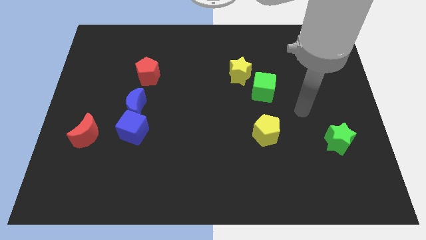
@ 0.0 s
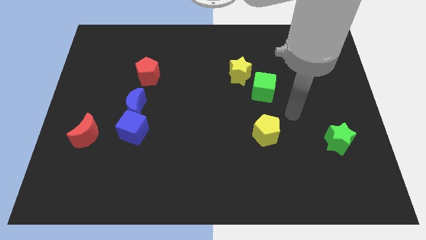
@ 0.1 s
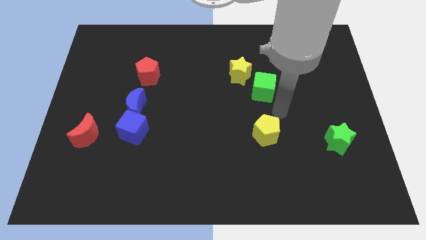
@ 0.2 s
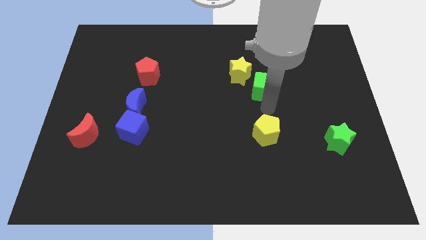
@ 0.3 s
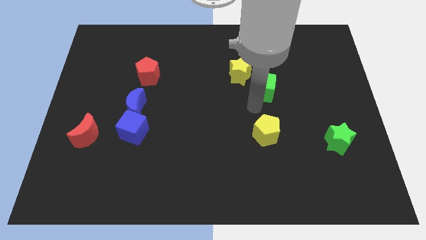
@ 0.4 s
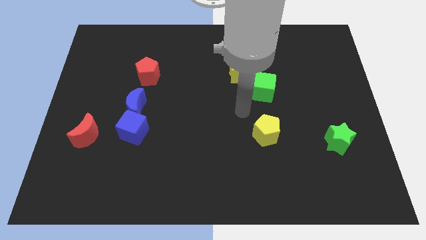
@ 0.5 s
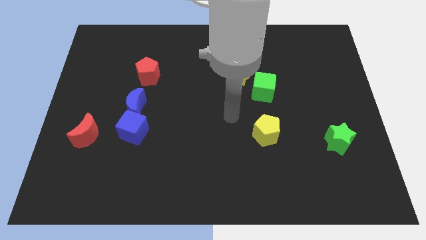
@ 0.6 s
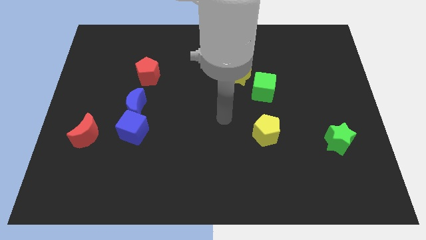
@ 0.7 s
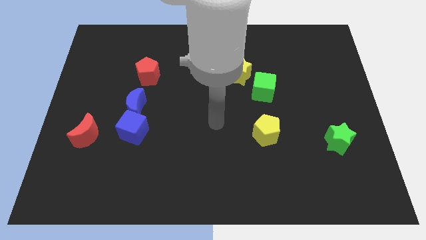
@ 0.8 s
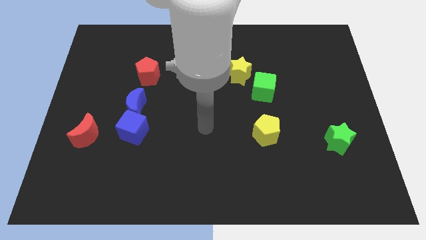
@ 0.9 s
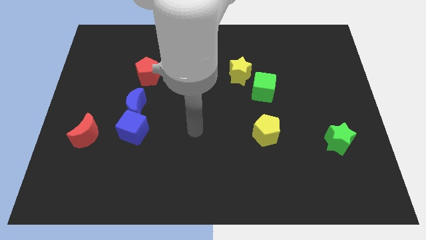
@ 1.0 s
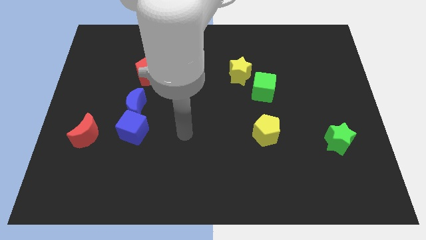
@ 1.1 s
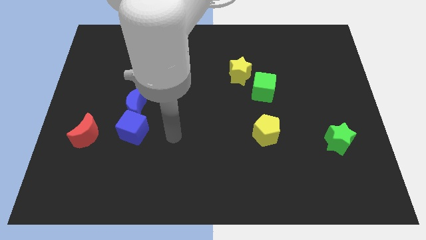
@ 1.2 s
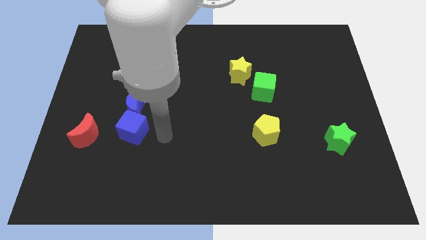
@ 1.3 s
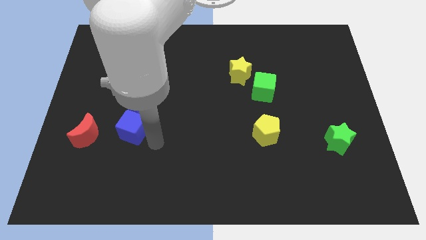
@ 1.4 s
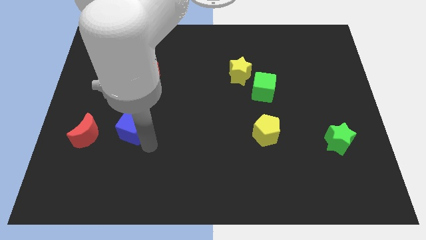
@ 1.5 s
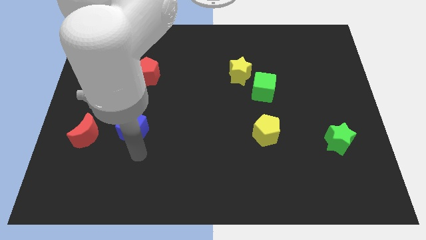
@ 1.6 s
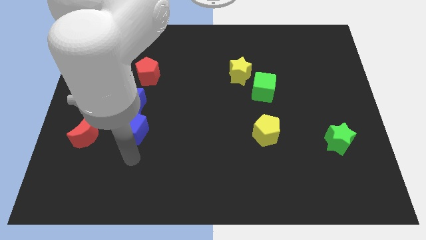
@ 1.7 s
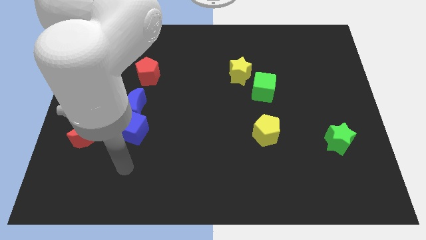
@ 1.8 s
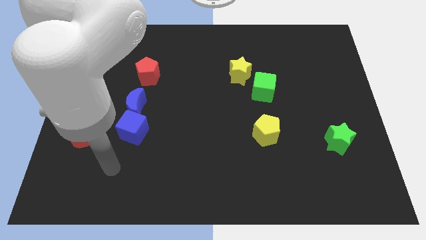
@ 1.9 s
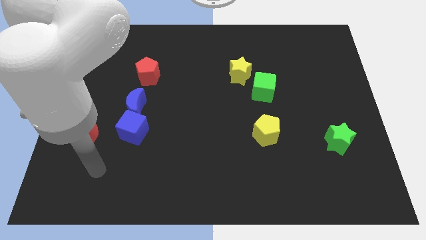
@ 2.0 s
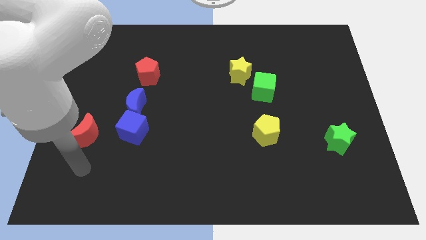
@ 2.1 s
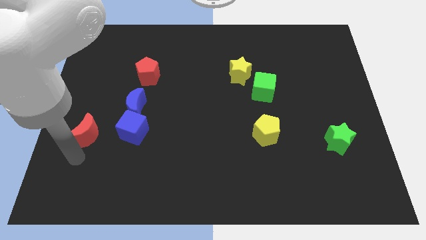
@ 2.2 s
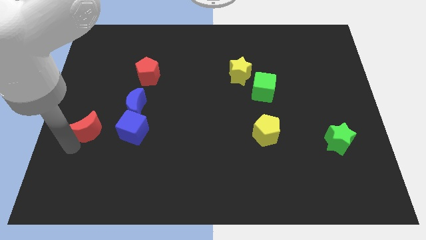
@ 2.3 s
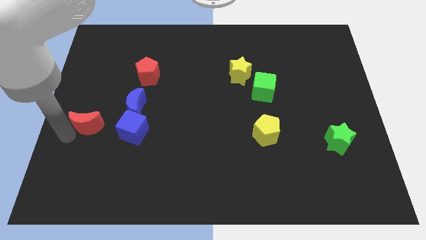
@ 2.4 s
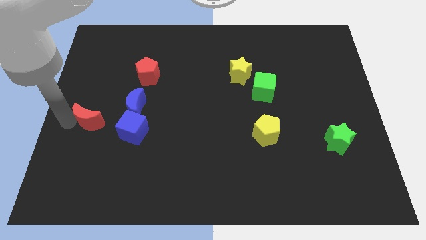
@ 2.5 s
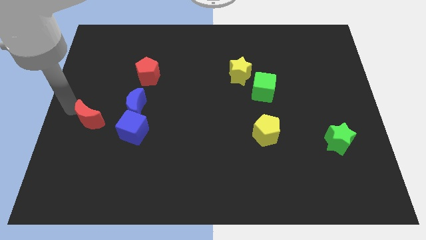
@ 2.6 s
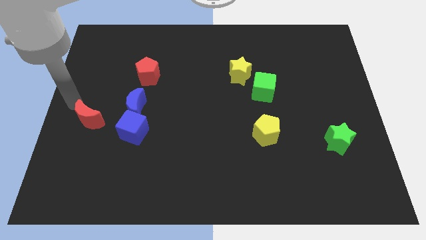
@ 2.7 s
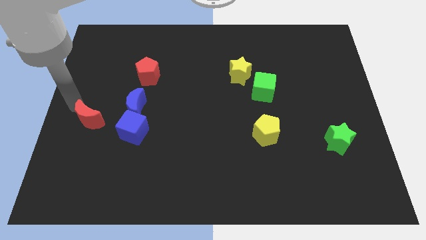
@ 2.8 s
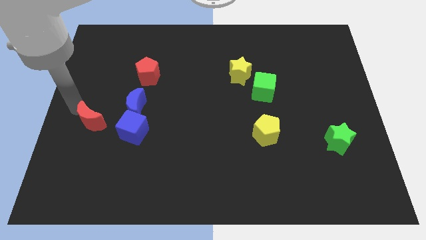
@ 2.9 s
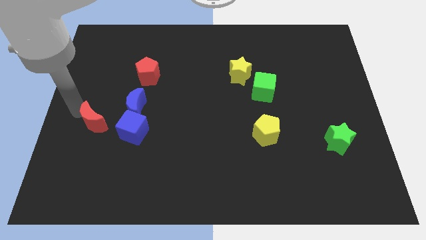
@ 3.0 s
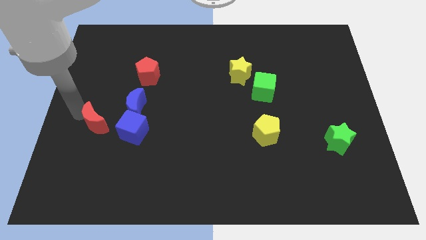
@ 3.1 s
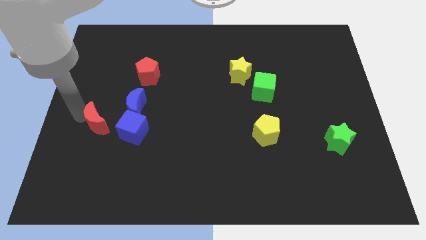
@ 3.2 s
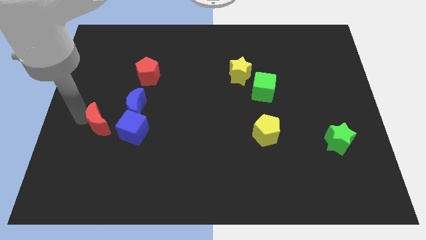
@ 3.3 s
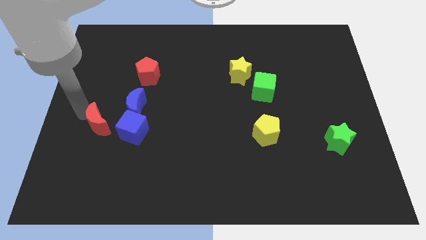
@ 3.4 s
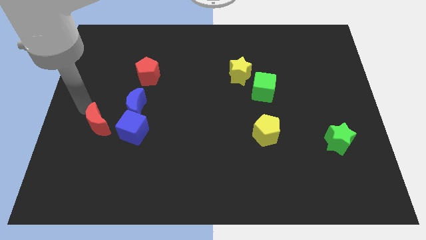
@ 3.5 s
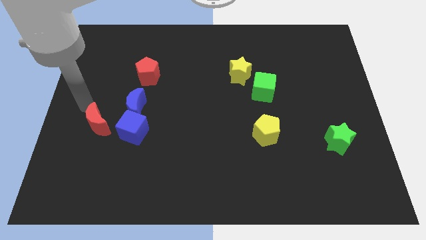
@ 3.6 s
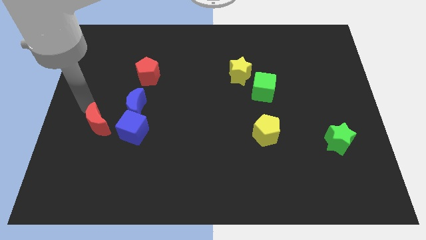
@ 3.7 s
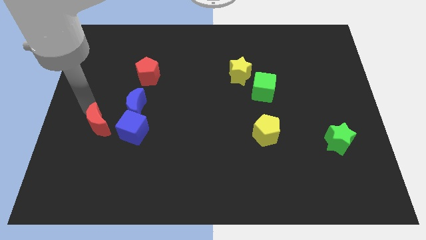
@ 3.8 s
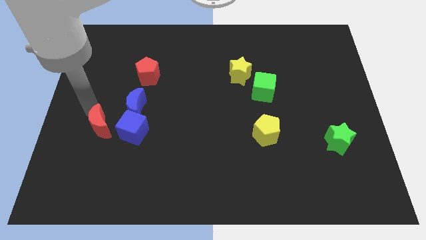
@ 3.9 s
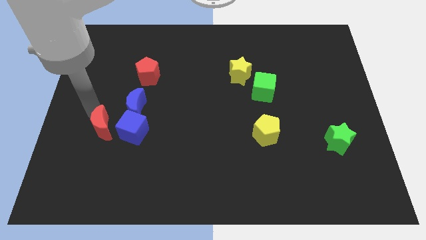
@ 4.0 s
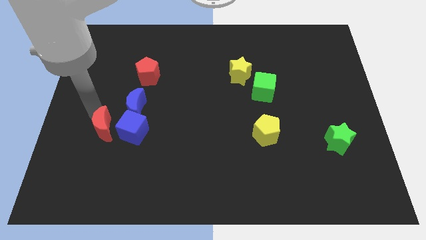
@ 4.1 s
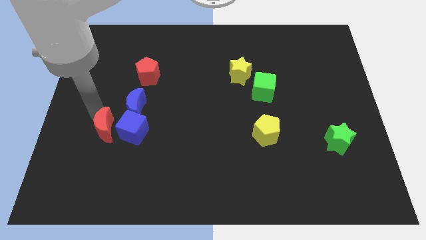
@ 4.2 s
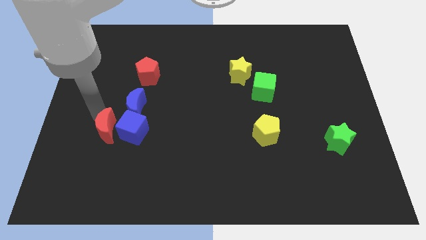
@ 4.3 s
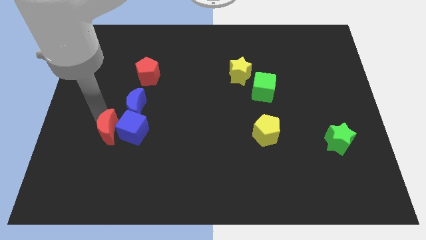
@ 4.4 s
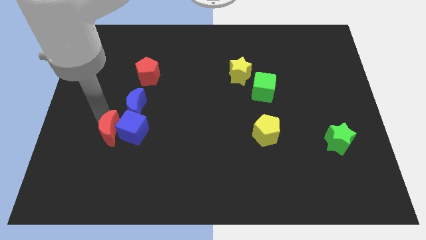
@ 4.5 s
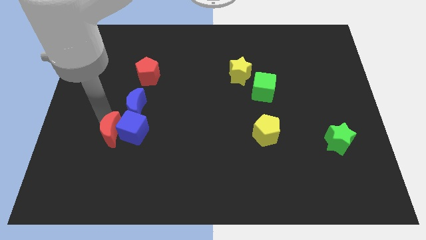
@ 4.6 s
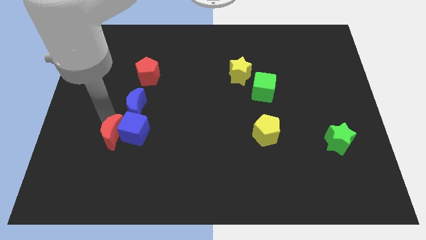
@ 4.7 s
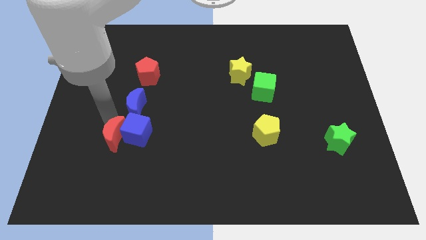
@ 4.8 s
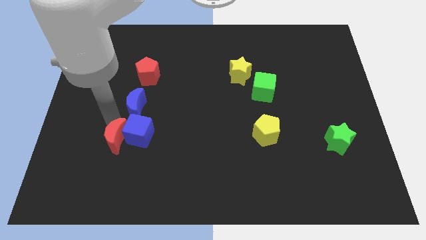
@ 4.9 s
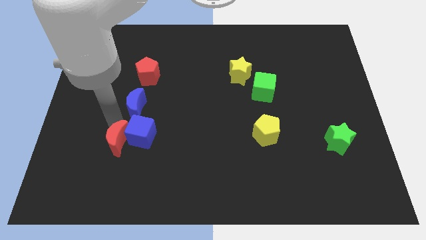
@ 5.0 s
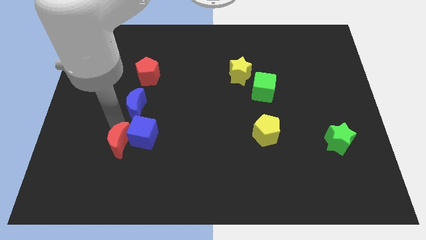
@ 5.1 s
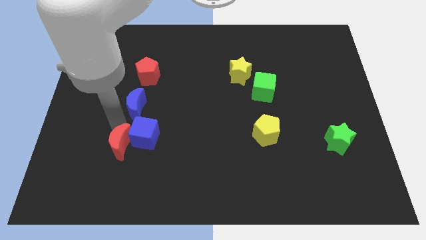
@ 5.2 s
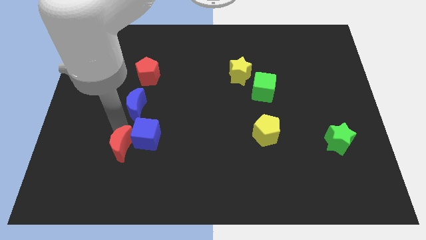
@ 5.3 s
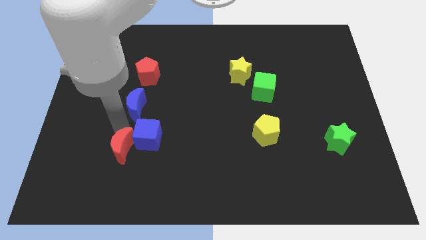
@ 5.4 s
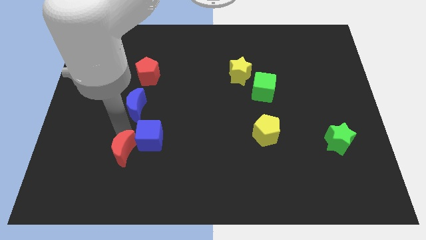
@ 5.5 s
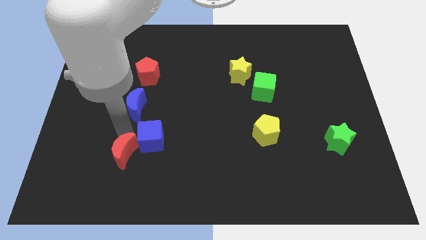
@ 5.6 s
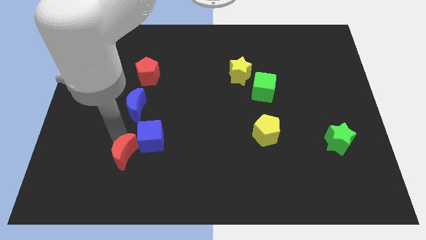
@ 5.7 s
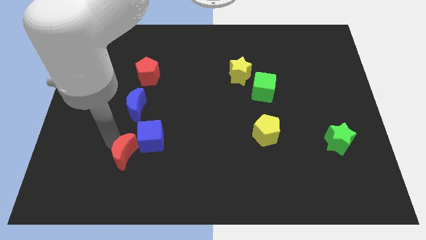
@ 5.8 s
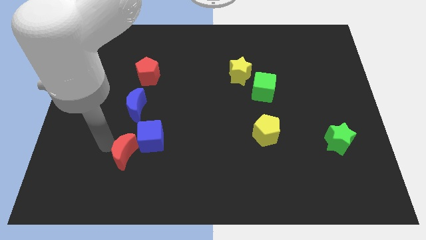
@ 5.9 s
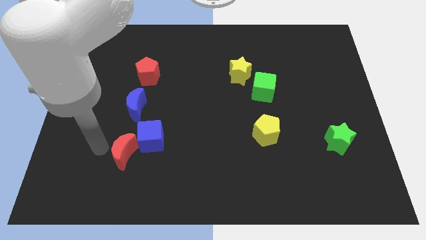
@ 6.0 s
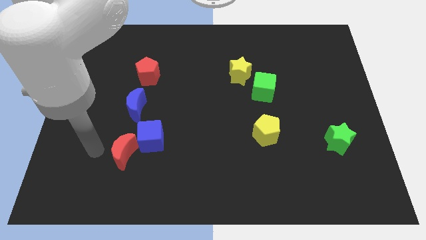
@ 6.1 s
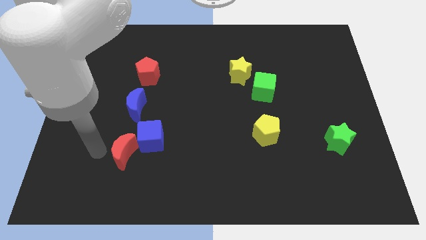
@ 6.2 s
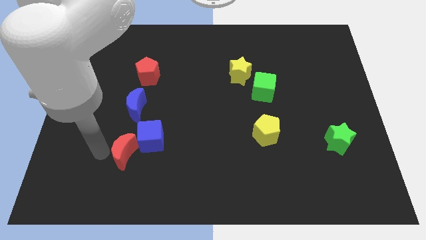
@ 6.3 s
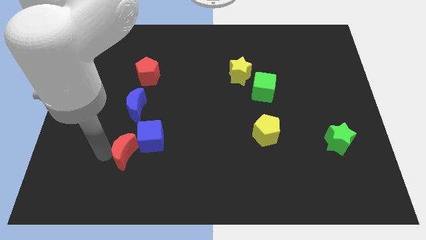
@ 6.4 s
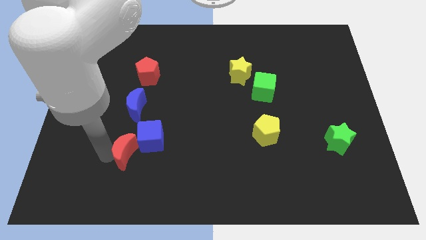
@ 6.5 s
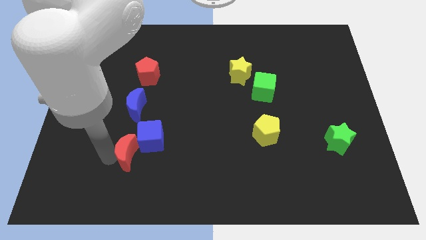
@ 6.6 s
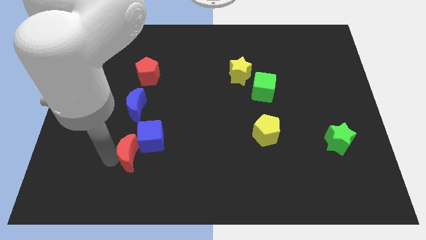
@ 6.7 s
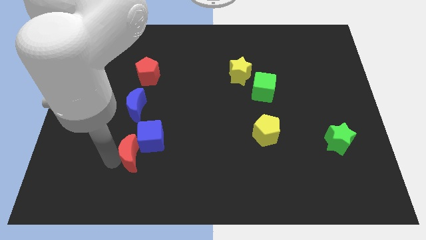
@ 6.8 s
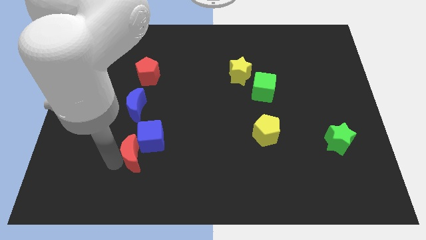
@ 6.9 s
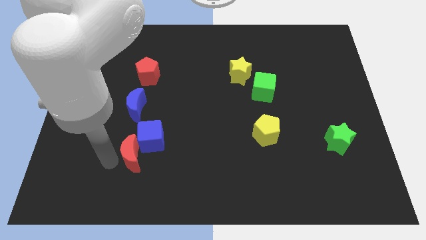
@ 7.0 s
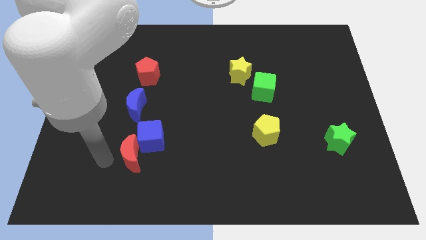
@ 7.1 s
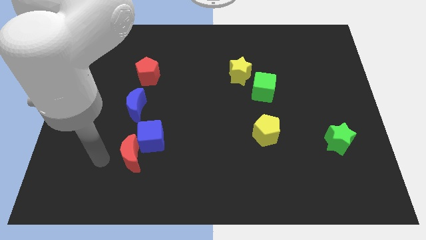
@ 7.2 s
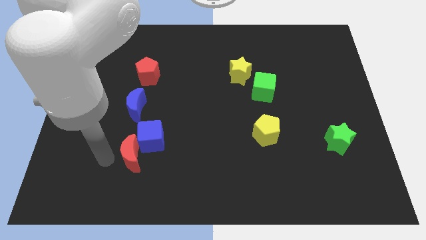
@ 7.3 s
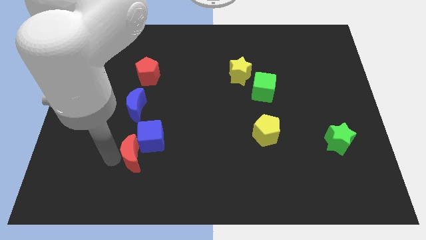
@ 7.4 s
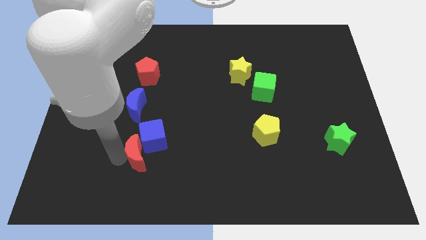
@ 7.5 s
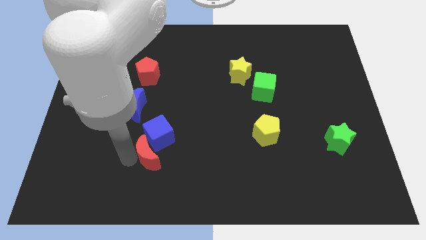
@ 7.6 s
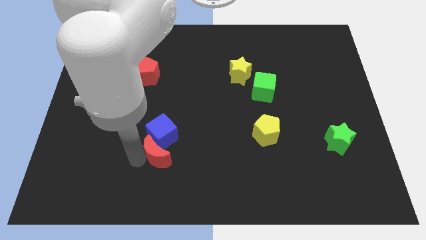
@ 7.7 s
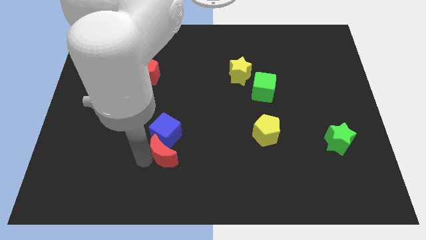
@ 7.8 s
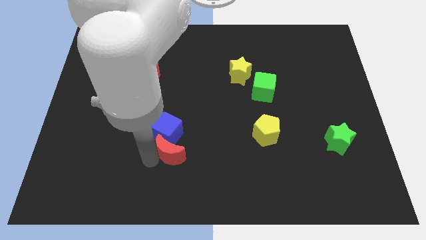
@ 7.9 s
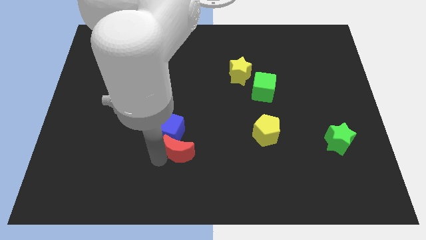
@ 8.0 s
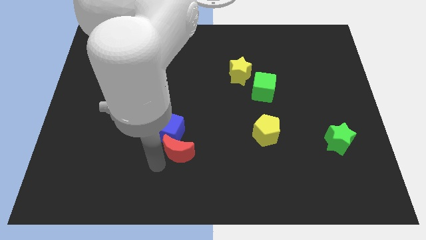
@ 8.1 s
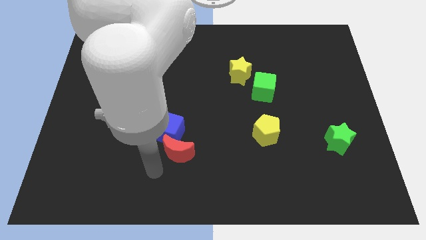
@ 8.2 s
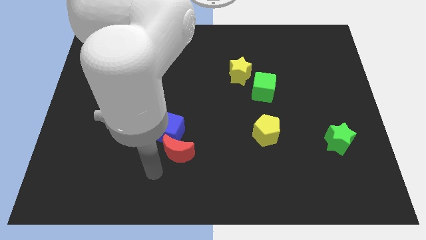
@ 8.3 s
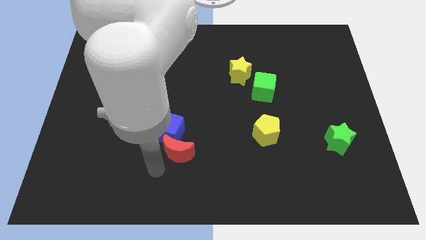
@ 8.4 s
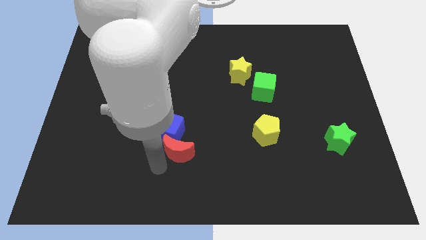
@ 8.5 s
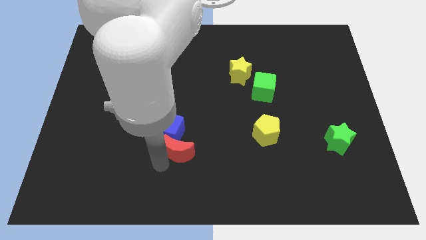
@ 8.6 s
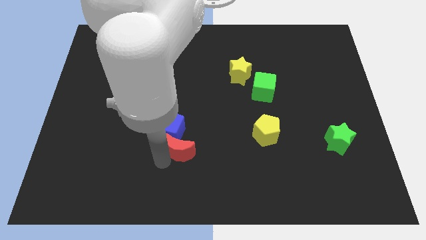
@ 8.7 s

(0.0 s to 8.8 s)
move the red moon right
